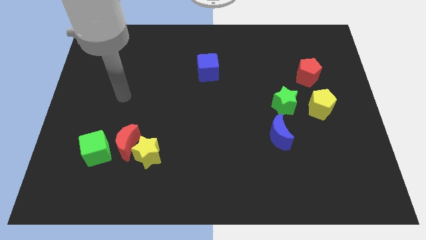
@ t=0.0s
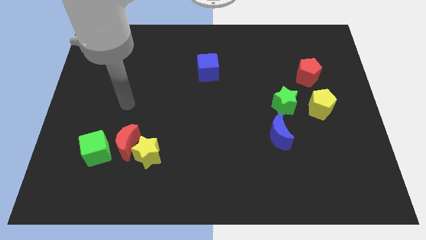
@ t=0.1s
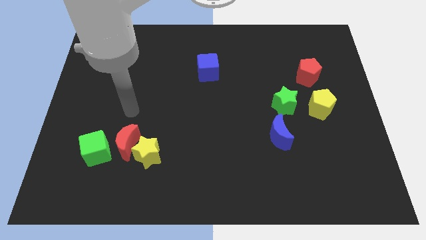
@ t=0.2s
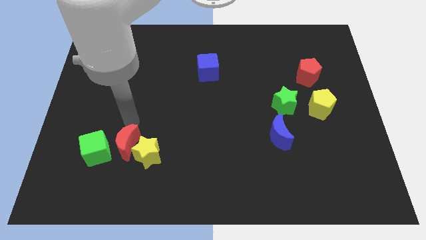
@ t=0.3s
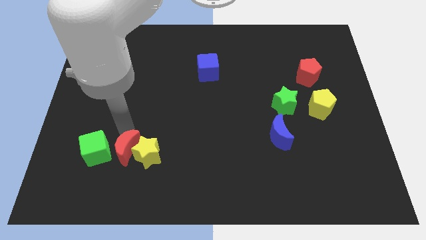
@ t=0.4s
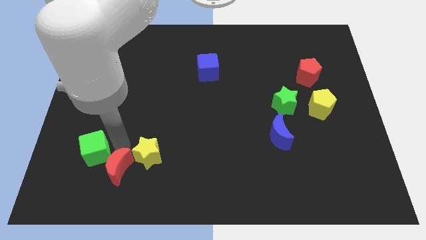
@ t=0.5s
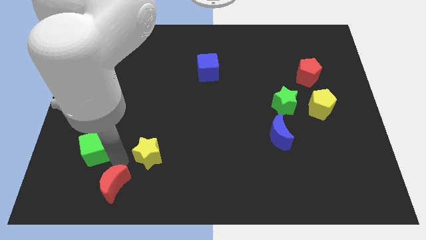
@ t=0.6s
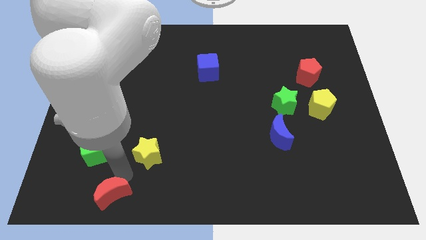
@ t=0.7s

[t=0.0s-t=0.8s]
move the yellow star away from the red moon

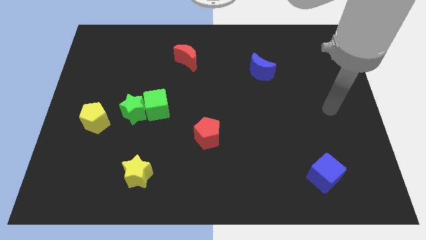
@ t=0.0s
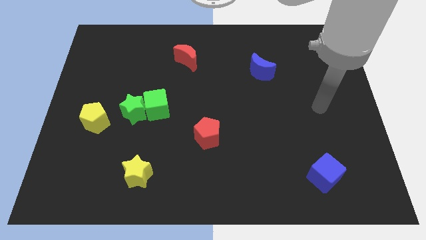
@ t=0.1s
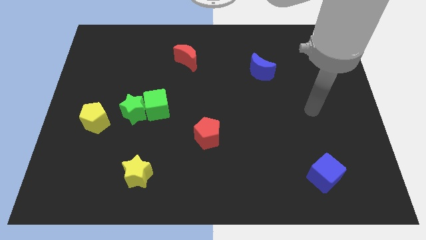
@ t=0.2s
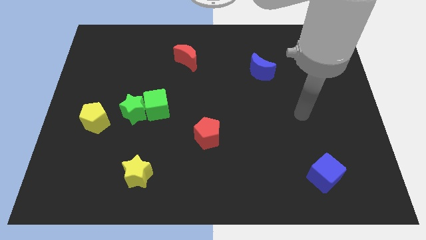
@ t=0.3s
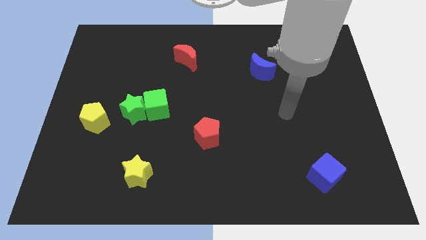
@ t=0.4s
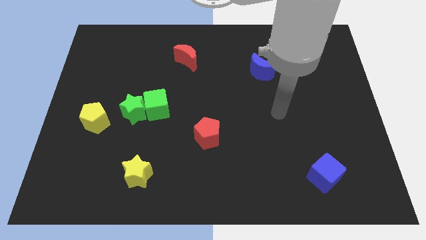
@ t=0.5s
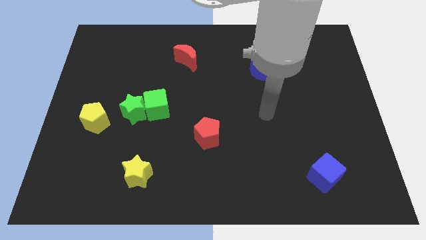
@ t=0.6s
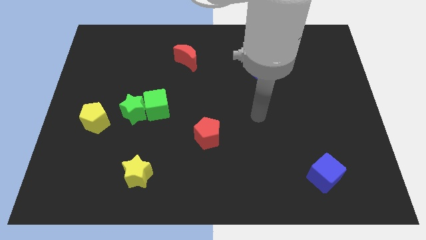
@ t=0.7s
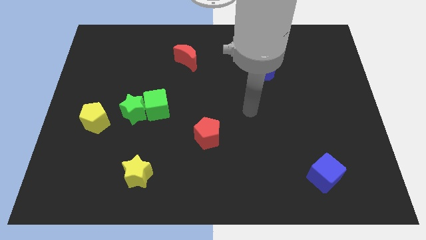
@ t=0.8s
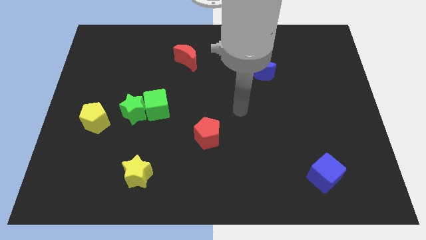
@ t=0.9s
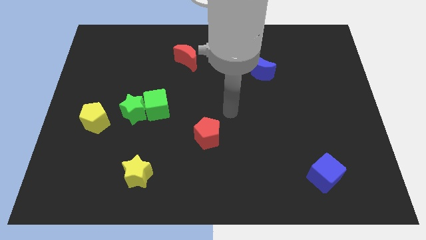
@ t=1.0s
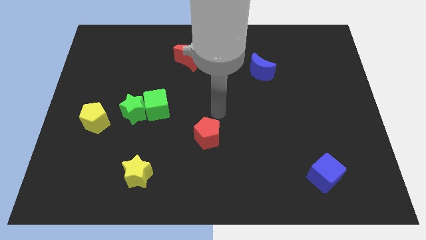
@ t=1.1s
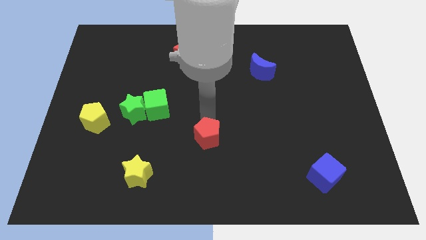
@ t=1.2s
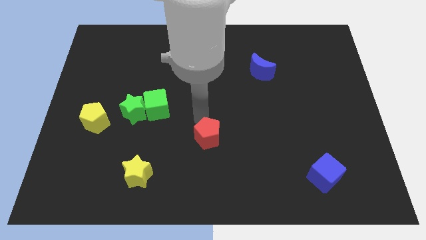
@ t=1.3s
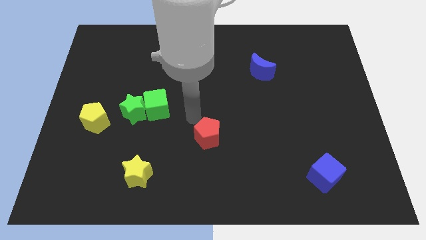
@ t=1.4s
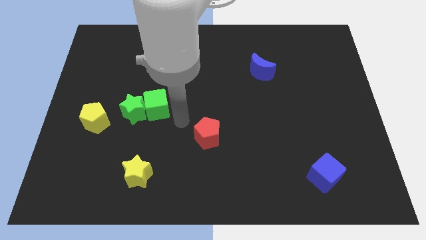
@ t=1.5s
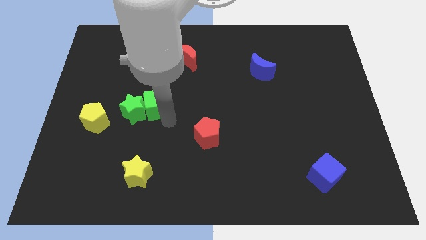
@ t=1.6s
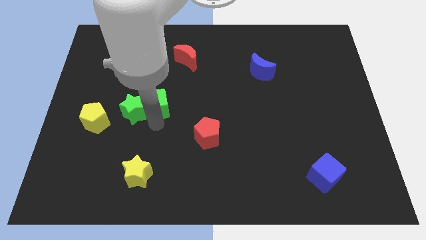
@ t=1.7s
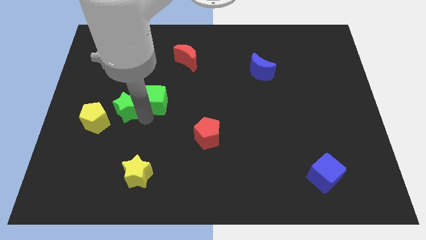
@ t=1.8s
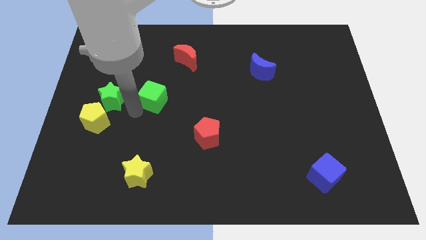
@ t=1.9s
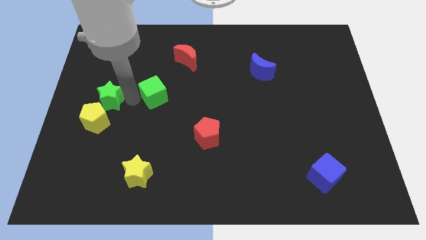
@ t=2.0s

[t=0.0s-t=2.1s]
separate the green cube from the green star

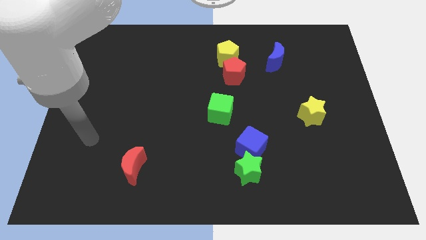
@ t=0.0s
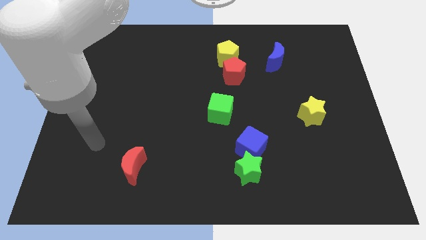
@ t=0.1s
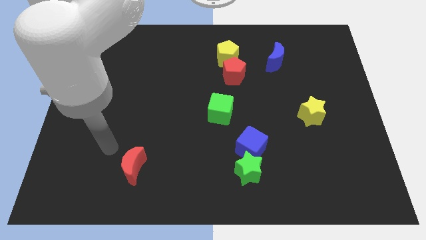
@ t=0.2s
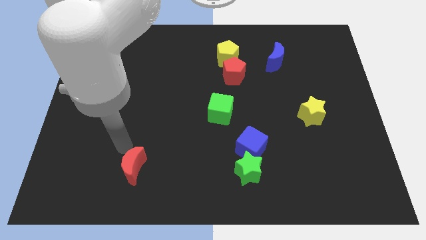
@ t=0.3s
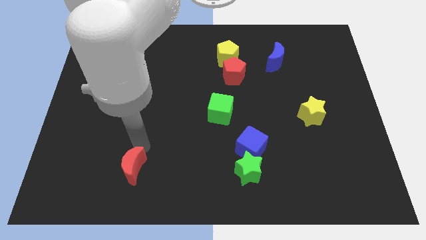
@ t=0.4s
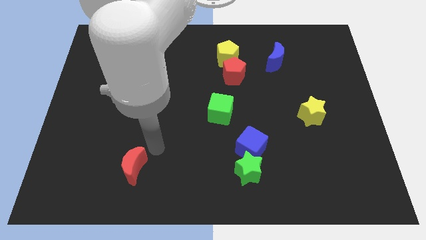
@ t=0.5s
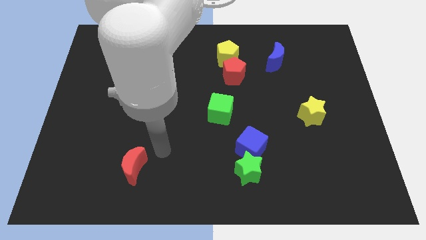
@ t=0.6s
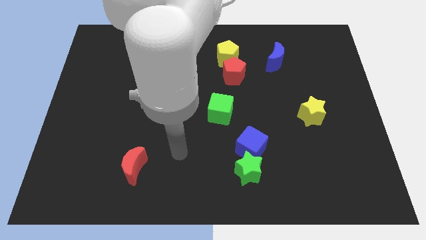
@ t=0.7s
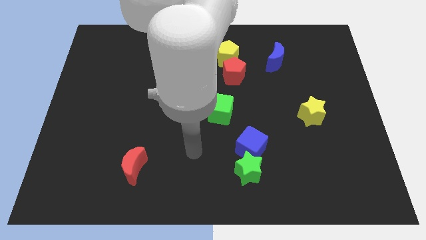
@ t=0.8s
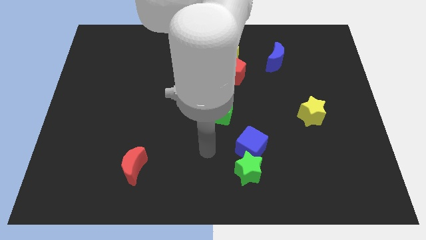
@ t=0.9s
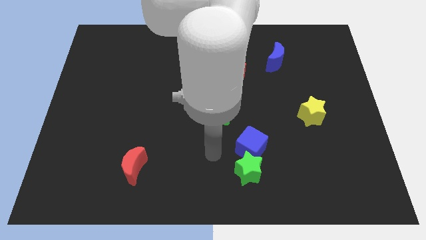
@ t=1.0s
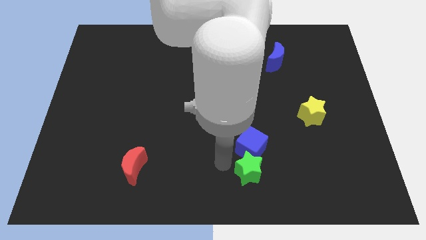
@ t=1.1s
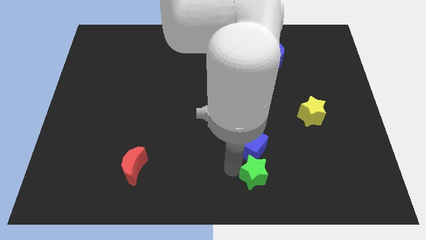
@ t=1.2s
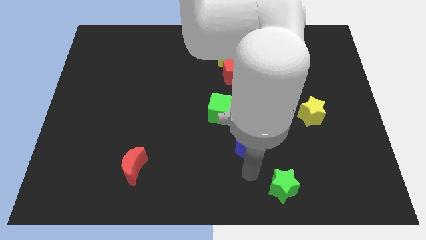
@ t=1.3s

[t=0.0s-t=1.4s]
move the blue cube away from the green star

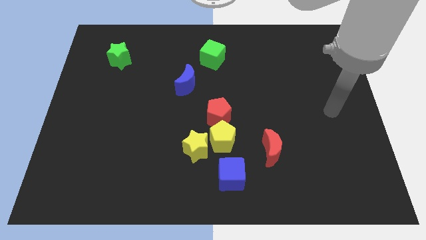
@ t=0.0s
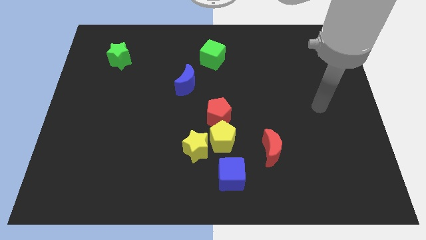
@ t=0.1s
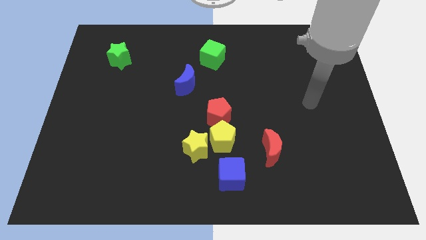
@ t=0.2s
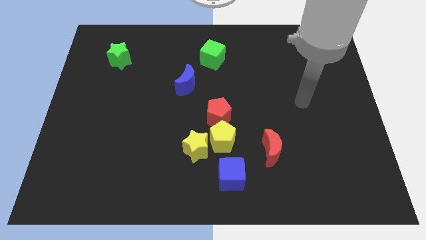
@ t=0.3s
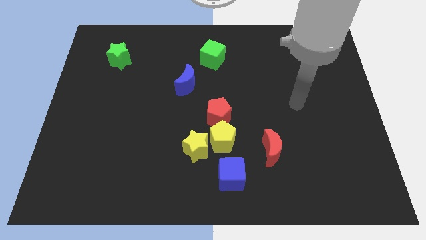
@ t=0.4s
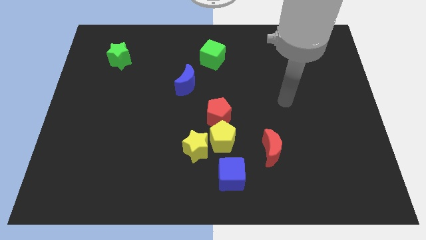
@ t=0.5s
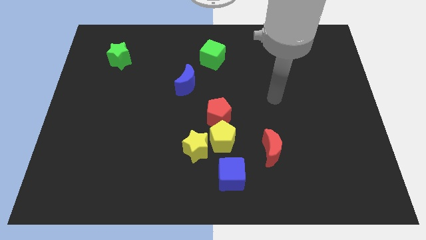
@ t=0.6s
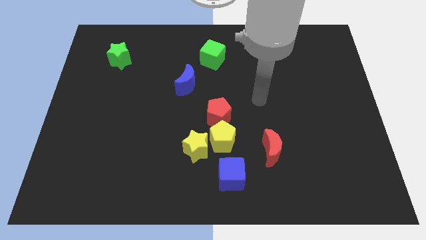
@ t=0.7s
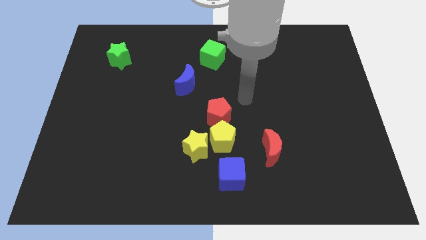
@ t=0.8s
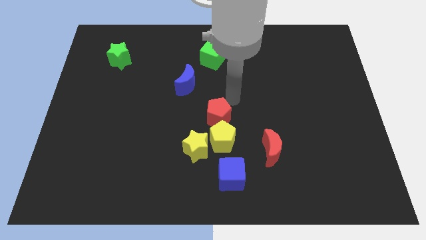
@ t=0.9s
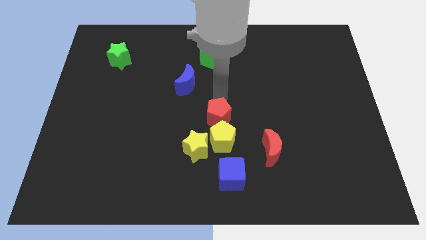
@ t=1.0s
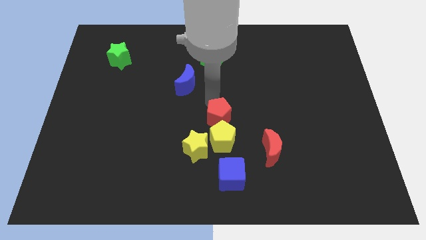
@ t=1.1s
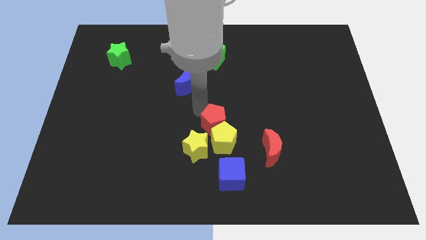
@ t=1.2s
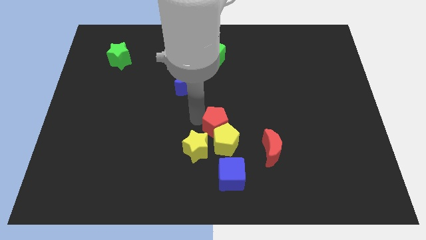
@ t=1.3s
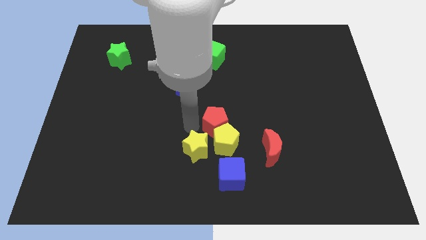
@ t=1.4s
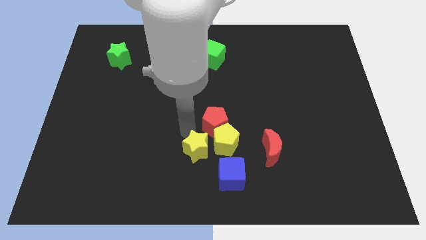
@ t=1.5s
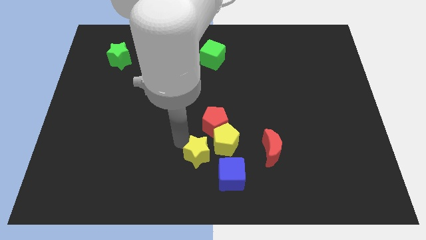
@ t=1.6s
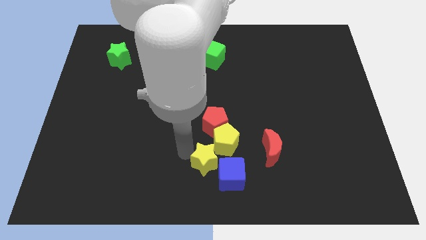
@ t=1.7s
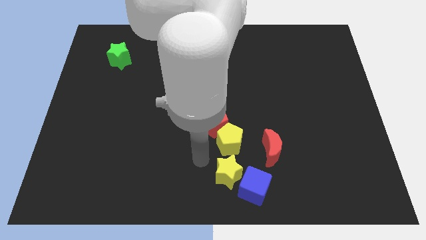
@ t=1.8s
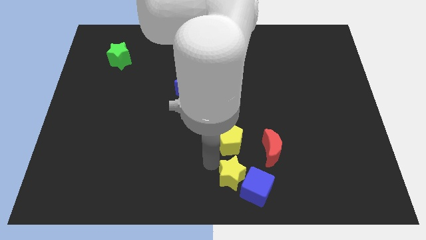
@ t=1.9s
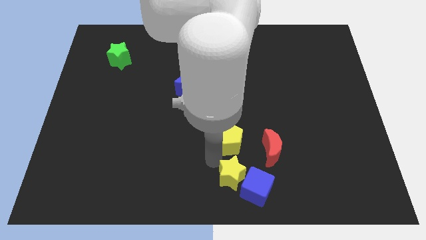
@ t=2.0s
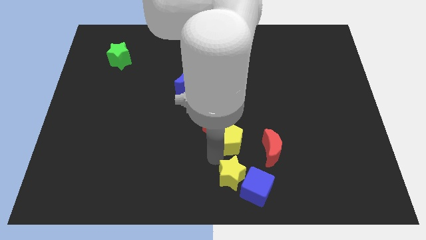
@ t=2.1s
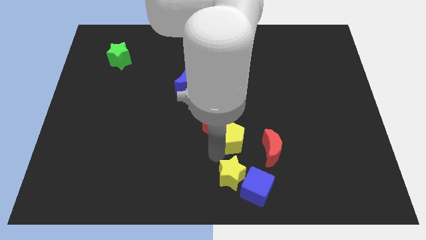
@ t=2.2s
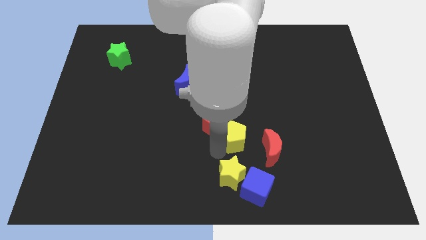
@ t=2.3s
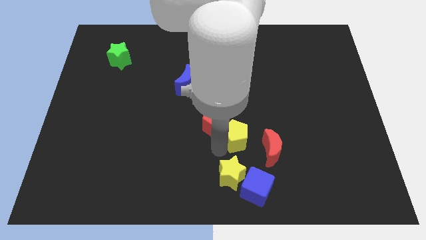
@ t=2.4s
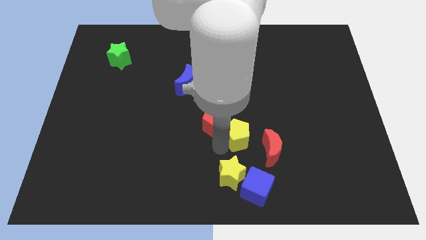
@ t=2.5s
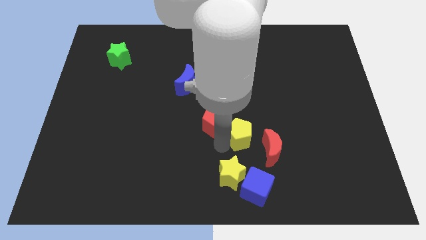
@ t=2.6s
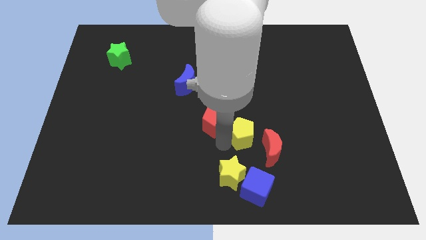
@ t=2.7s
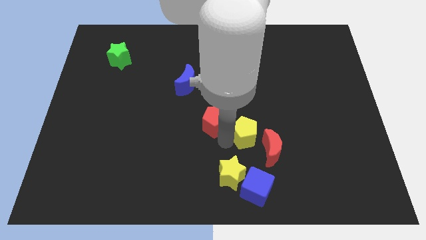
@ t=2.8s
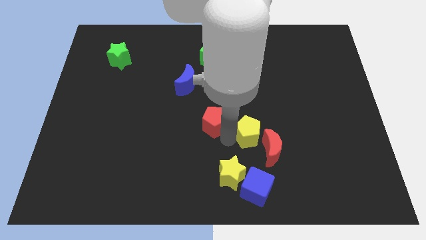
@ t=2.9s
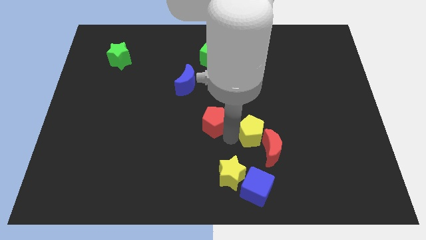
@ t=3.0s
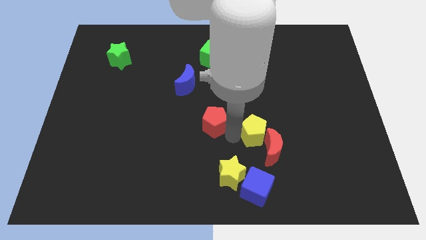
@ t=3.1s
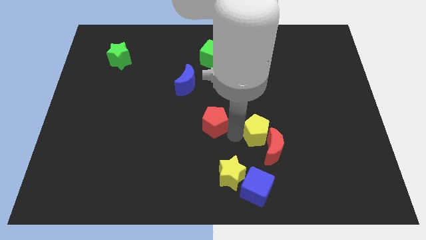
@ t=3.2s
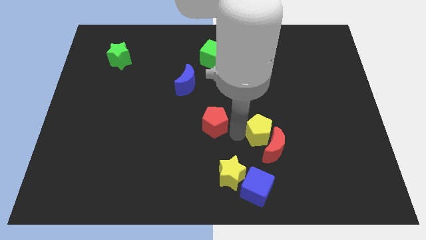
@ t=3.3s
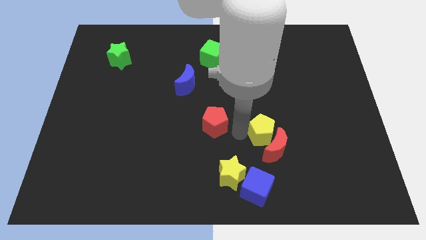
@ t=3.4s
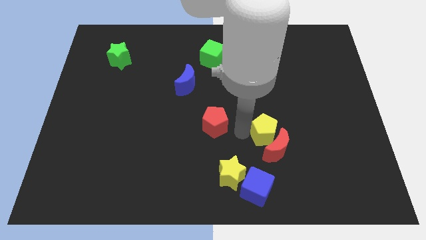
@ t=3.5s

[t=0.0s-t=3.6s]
separate the yellow pentagon from the group

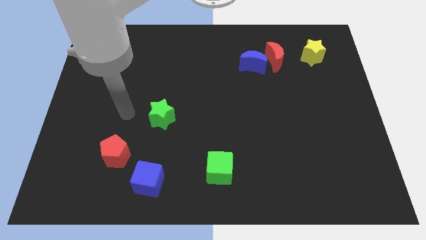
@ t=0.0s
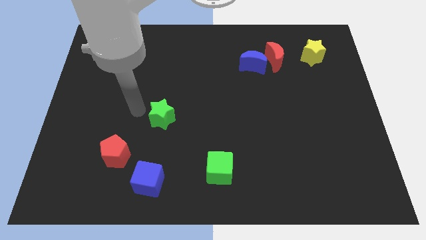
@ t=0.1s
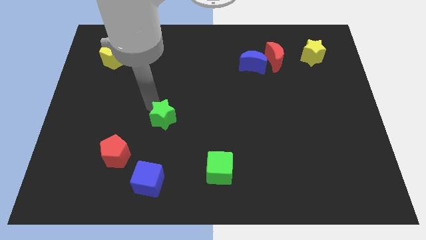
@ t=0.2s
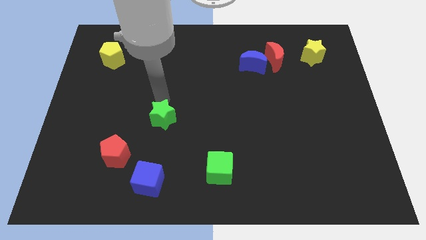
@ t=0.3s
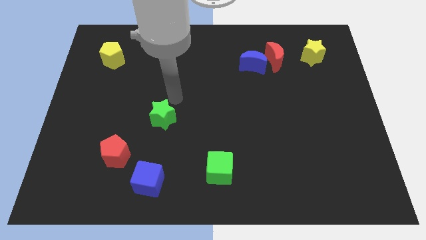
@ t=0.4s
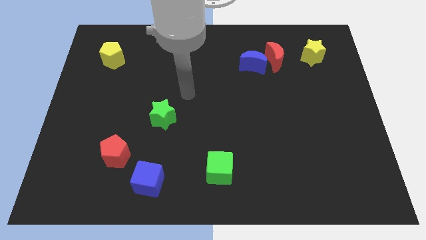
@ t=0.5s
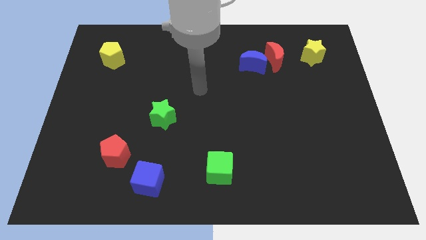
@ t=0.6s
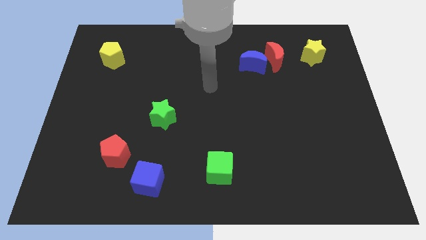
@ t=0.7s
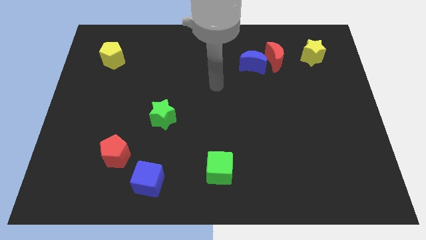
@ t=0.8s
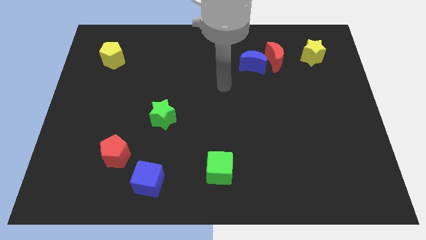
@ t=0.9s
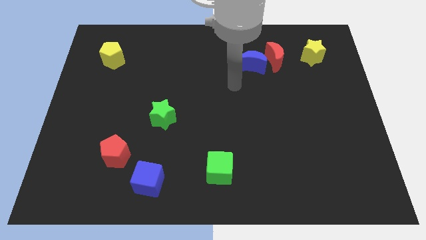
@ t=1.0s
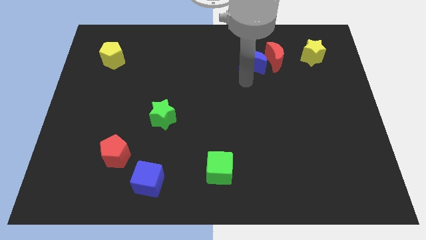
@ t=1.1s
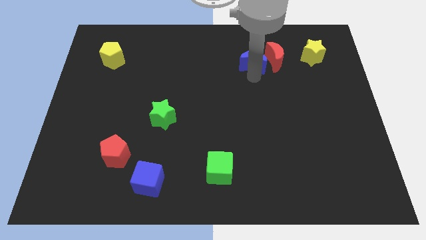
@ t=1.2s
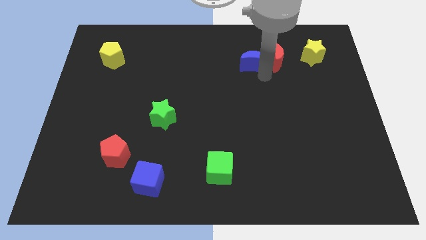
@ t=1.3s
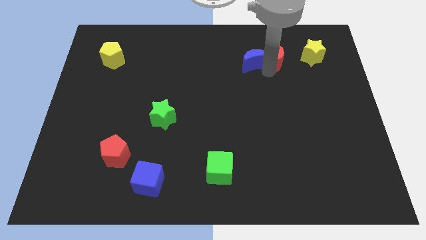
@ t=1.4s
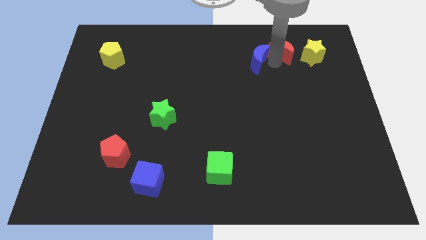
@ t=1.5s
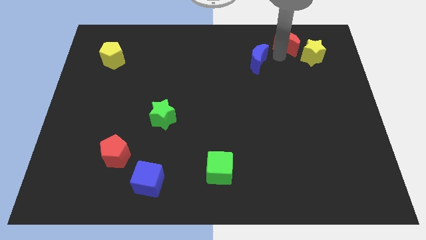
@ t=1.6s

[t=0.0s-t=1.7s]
pull the blue moon apart from the red moon
